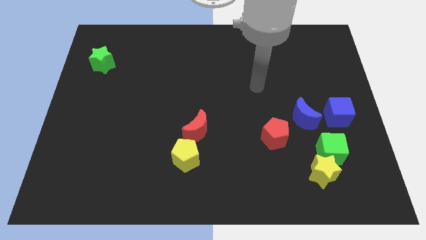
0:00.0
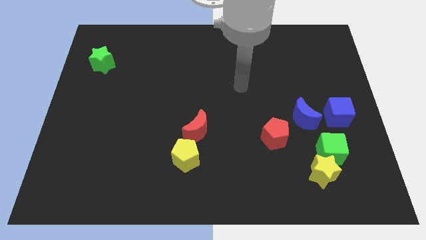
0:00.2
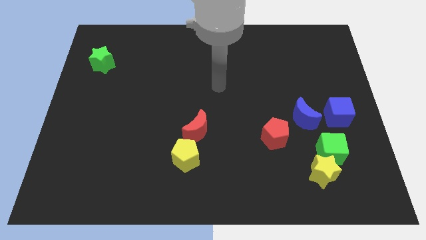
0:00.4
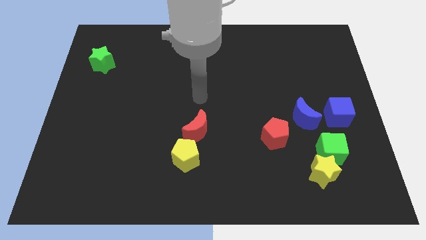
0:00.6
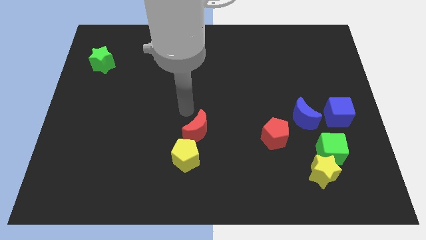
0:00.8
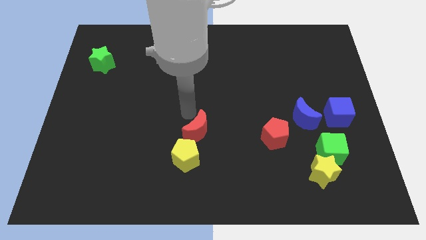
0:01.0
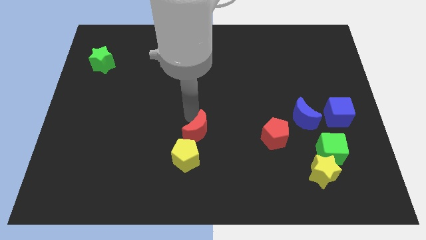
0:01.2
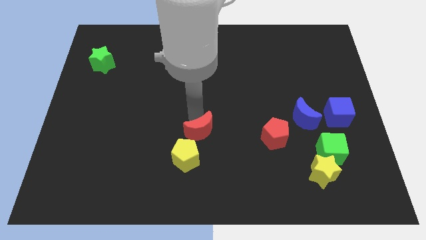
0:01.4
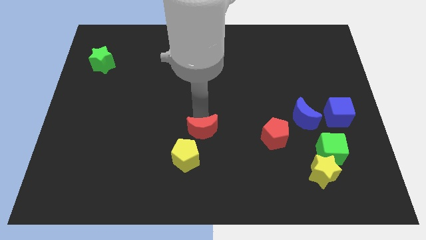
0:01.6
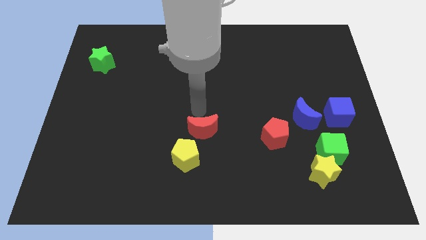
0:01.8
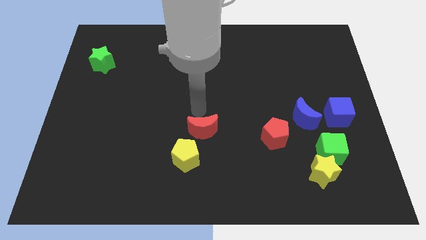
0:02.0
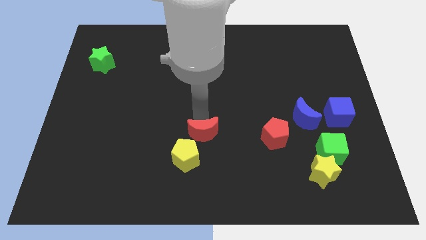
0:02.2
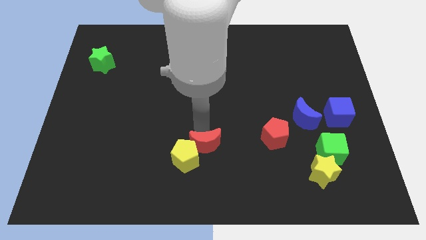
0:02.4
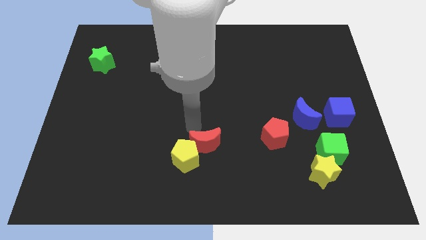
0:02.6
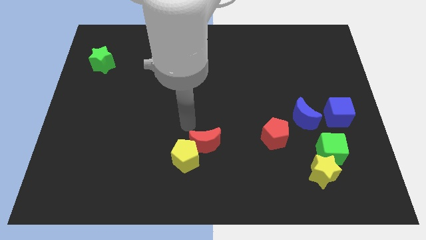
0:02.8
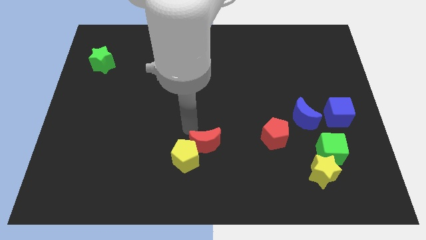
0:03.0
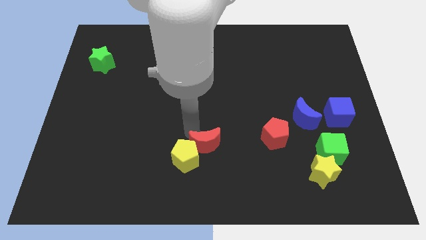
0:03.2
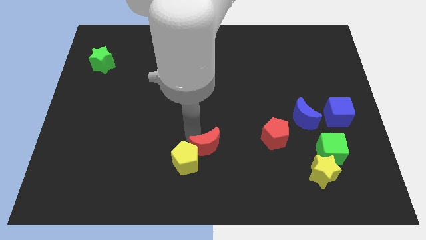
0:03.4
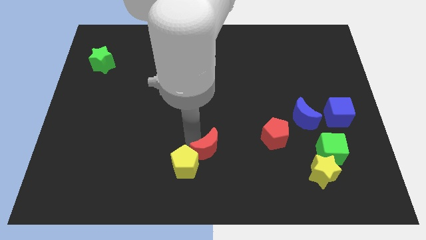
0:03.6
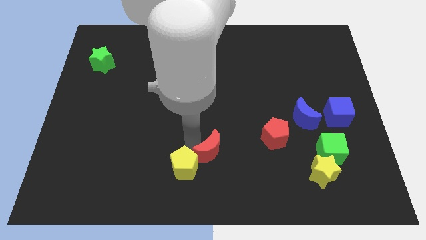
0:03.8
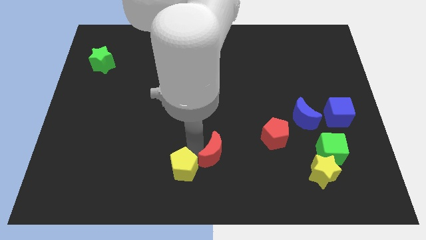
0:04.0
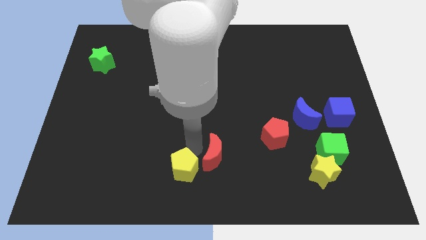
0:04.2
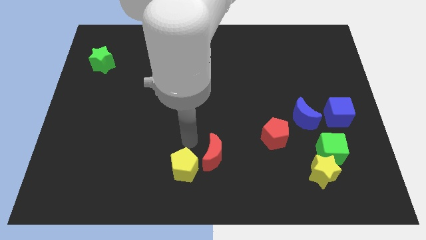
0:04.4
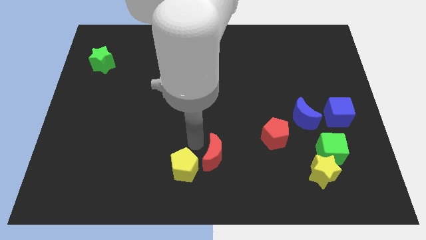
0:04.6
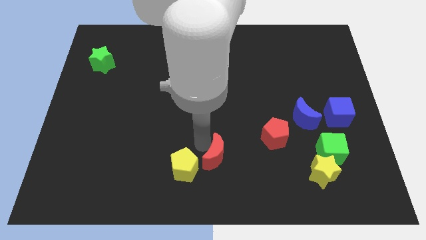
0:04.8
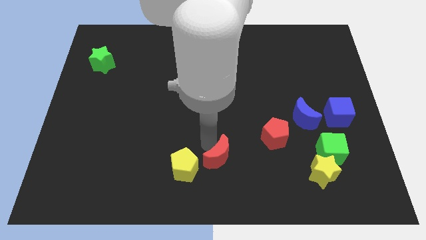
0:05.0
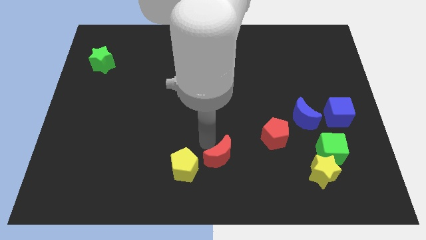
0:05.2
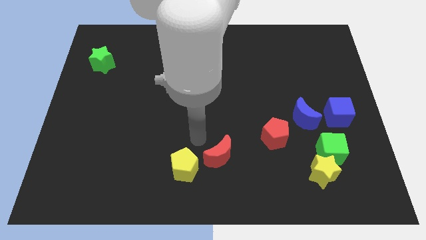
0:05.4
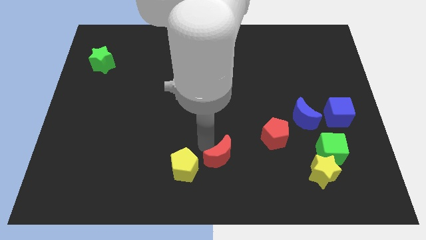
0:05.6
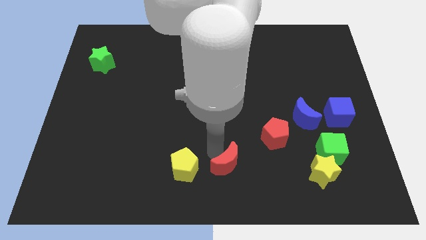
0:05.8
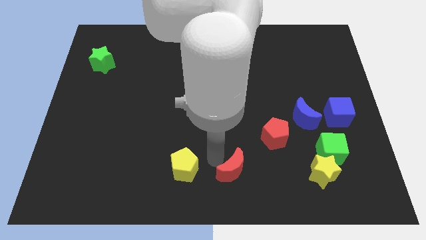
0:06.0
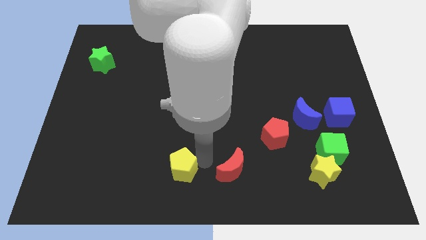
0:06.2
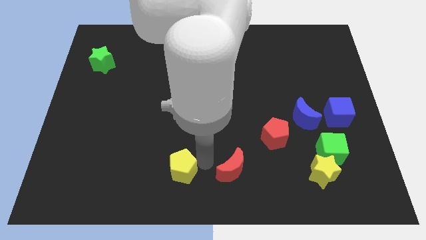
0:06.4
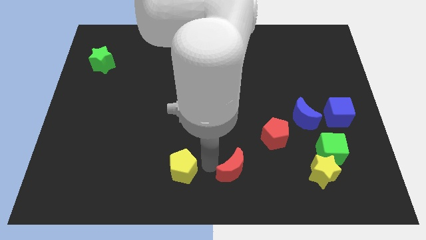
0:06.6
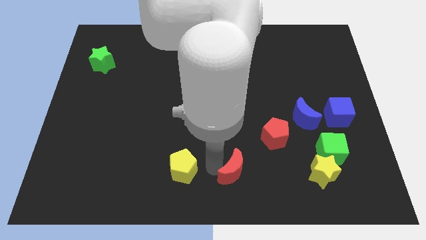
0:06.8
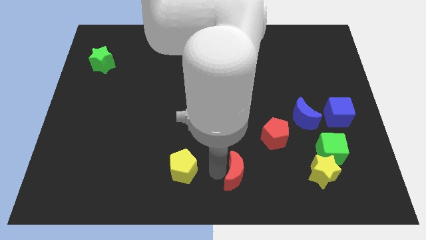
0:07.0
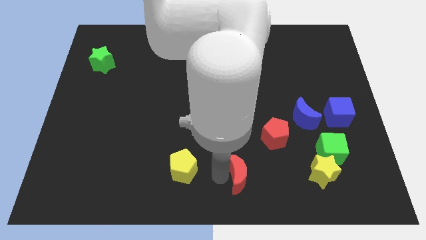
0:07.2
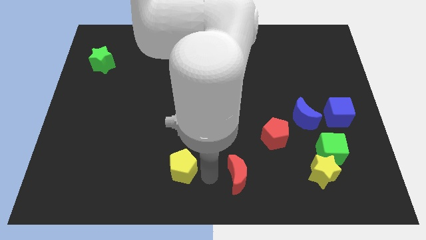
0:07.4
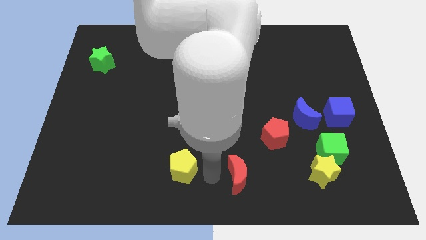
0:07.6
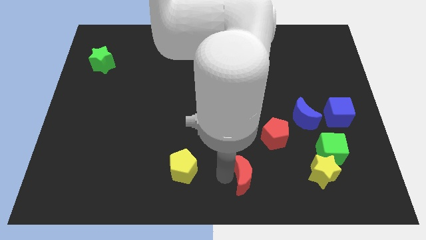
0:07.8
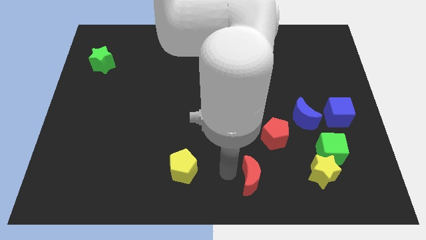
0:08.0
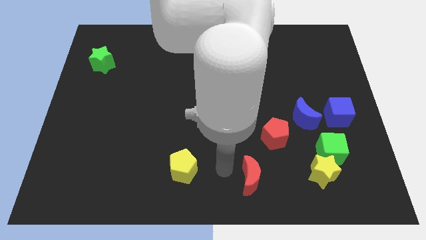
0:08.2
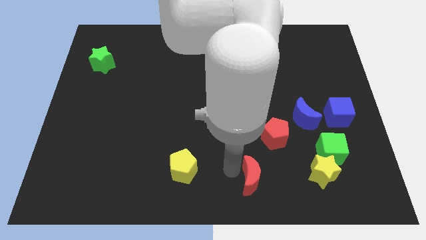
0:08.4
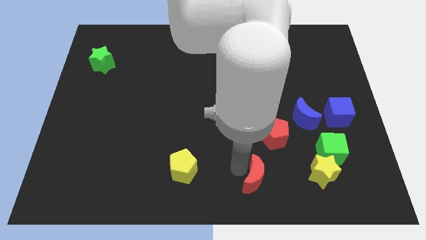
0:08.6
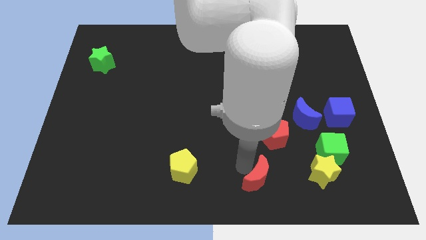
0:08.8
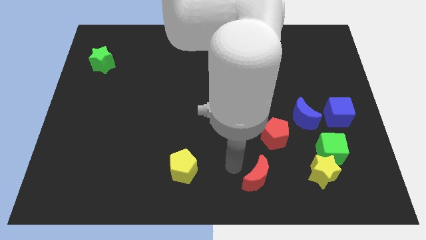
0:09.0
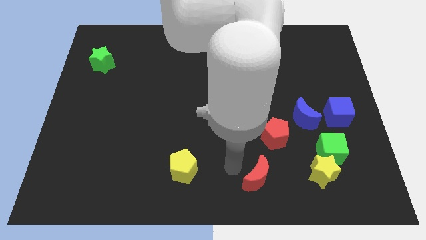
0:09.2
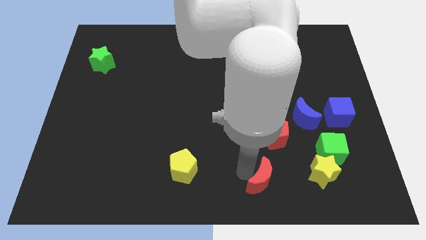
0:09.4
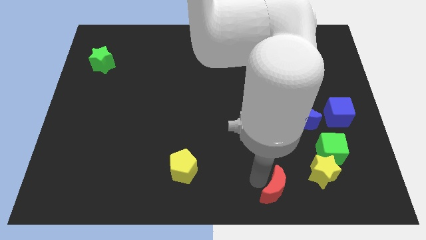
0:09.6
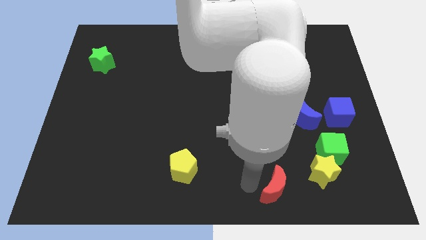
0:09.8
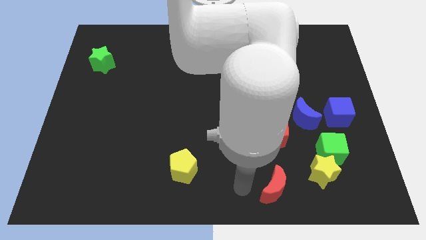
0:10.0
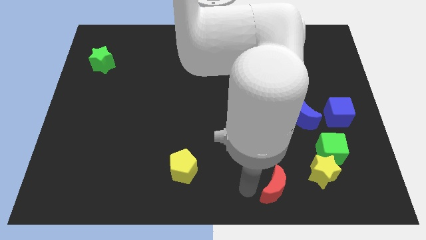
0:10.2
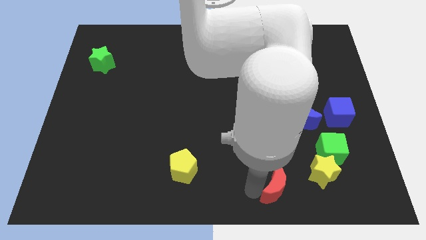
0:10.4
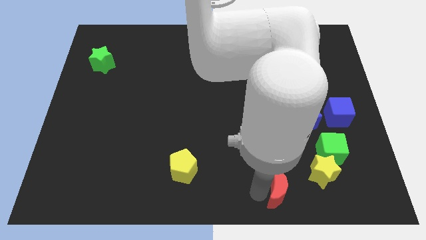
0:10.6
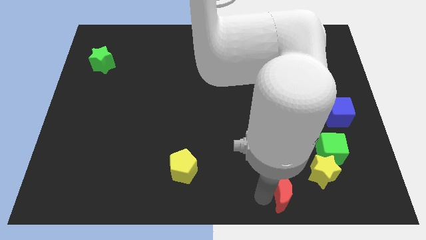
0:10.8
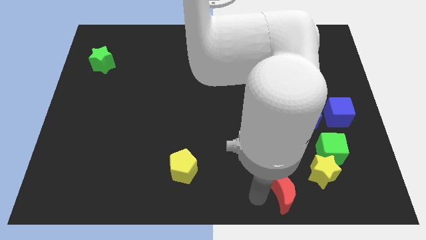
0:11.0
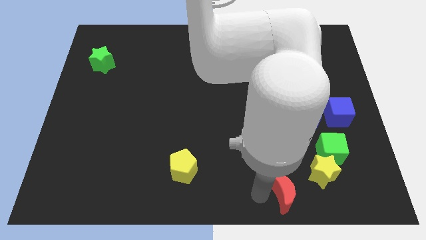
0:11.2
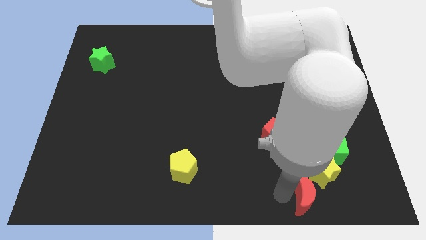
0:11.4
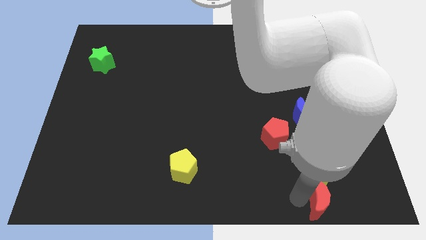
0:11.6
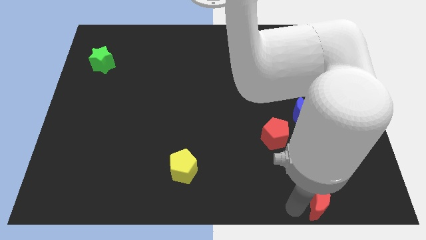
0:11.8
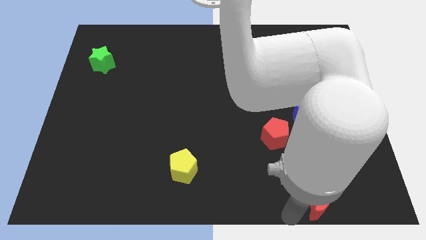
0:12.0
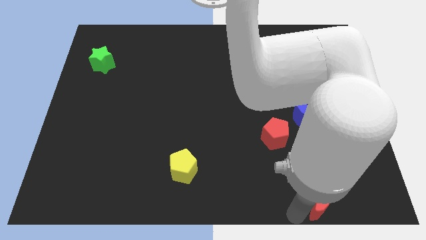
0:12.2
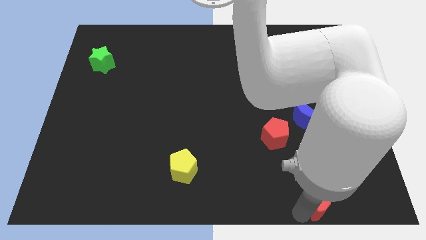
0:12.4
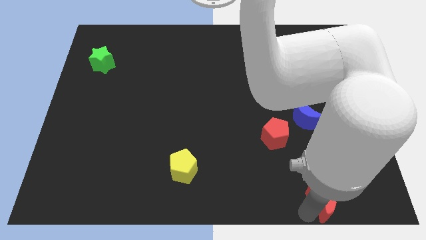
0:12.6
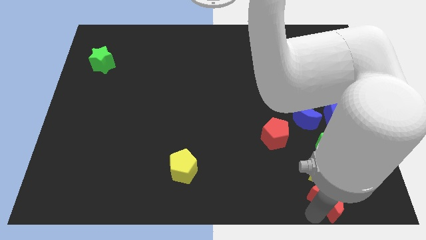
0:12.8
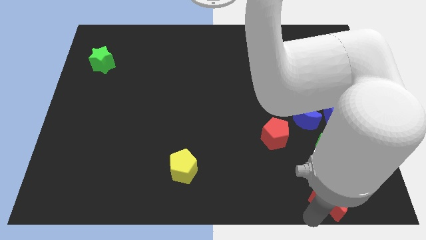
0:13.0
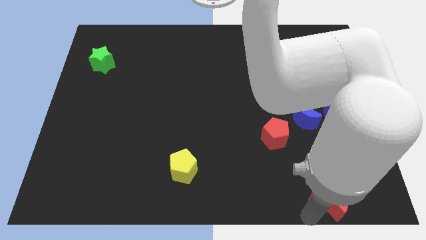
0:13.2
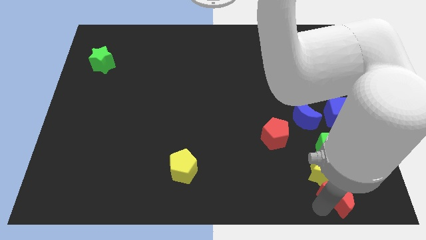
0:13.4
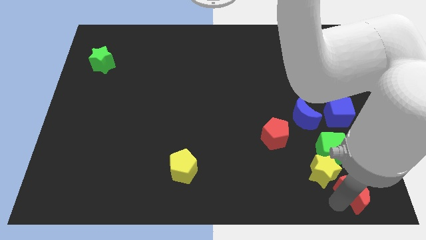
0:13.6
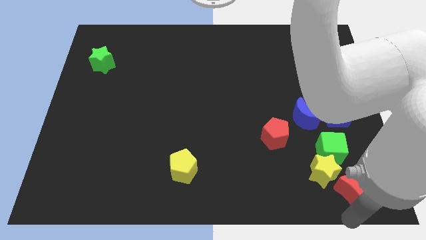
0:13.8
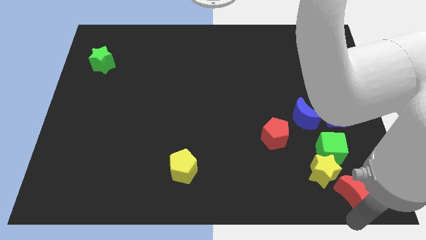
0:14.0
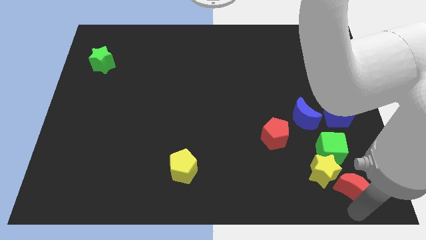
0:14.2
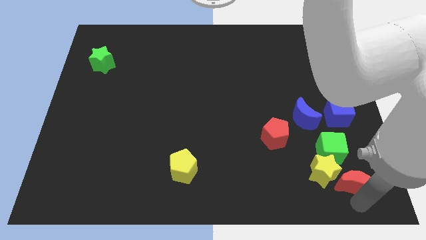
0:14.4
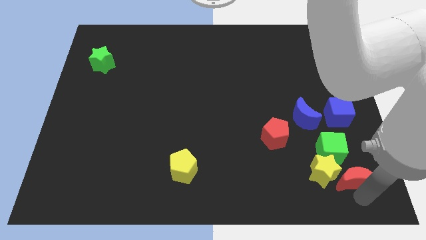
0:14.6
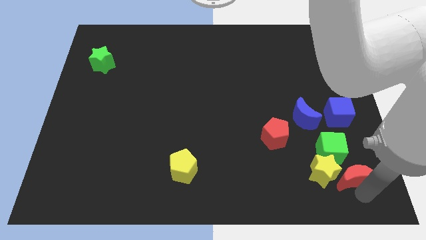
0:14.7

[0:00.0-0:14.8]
slide the red moon to the bottom side of the blue cube

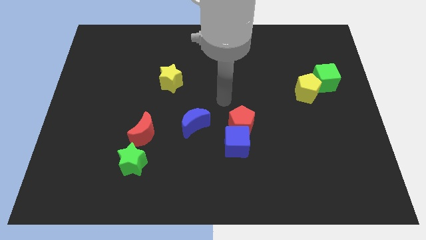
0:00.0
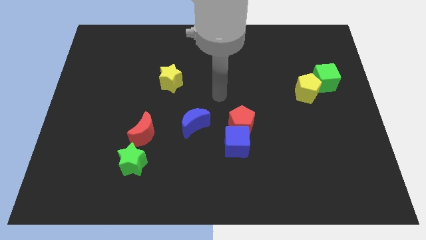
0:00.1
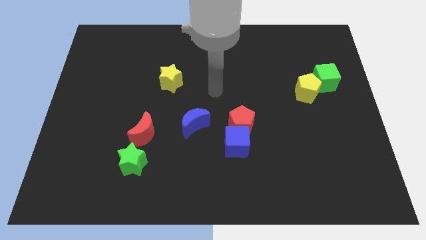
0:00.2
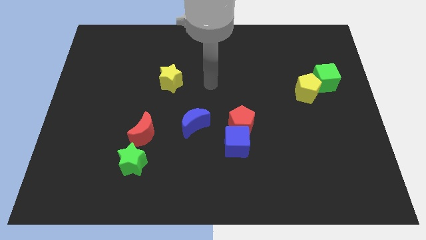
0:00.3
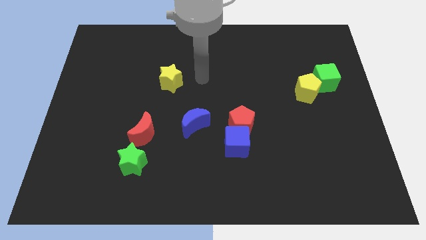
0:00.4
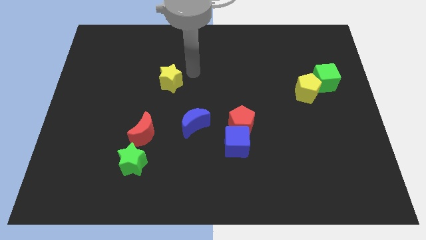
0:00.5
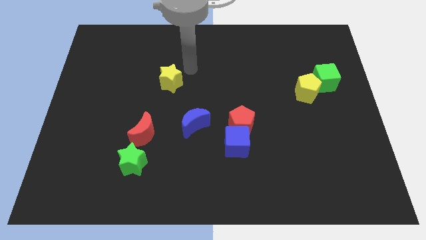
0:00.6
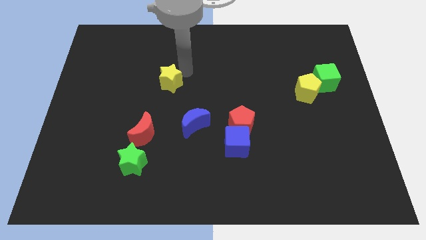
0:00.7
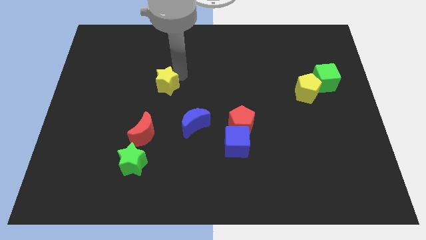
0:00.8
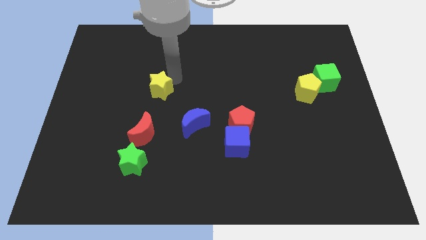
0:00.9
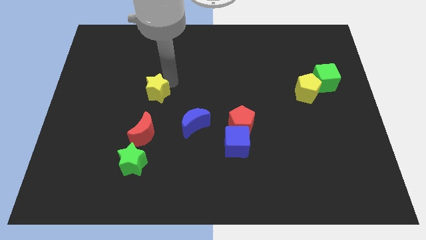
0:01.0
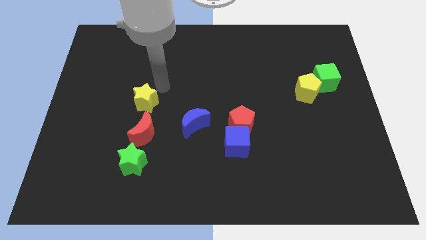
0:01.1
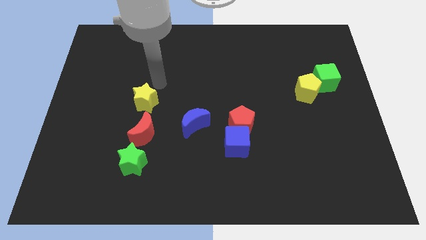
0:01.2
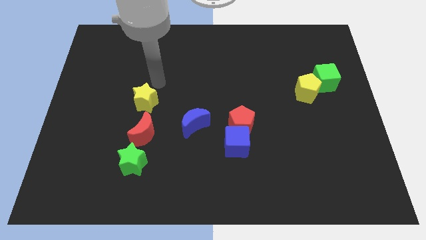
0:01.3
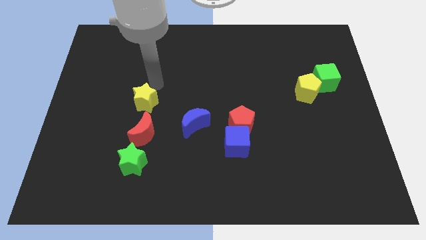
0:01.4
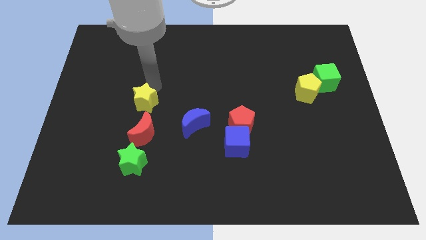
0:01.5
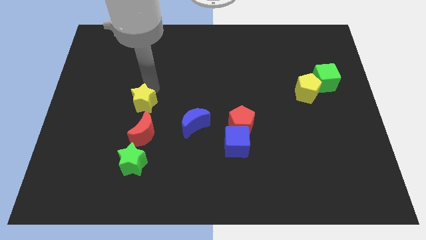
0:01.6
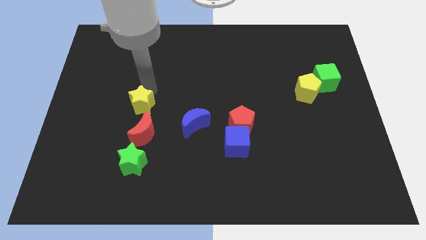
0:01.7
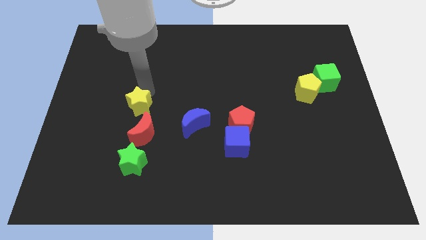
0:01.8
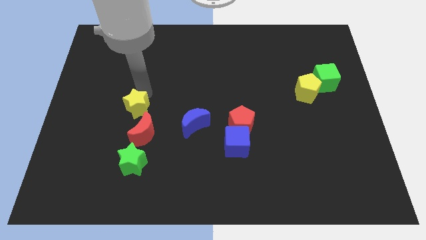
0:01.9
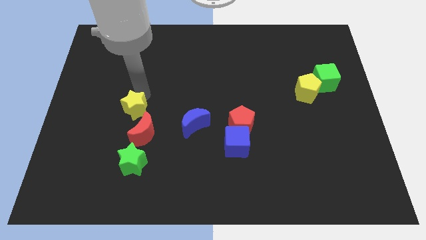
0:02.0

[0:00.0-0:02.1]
move the yellow star to the left of the blue moon
